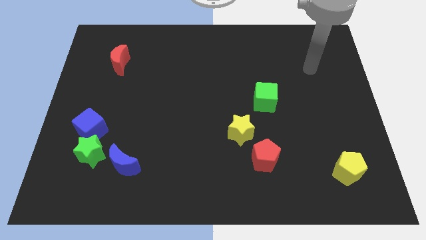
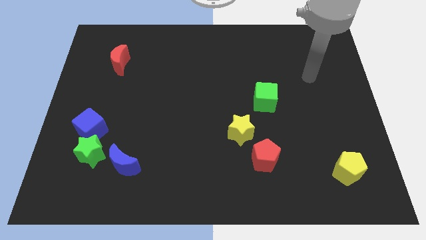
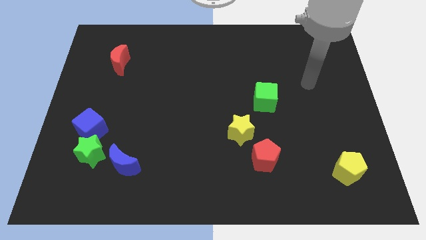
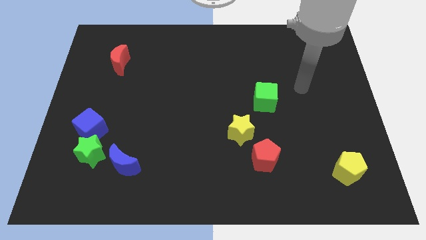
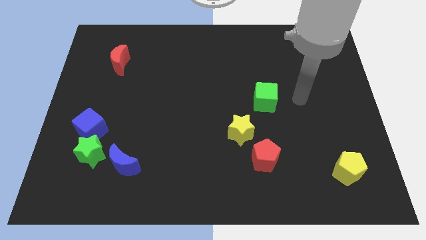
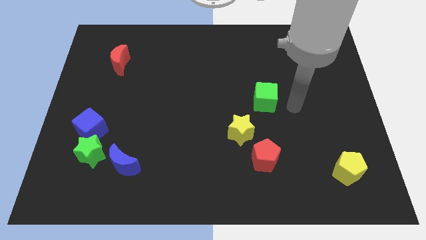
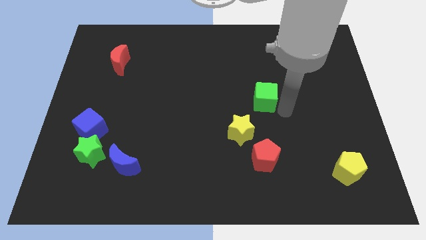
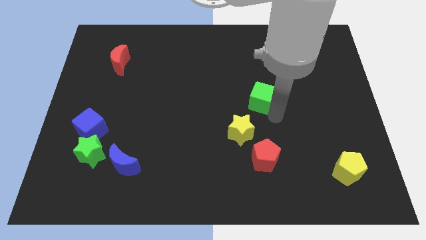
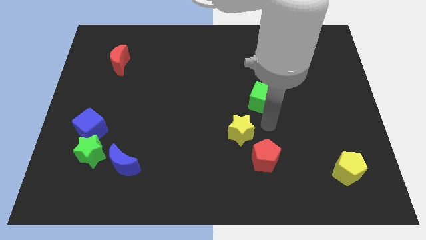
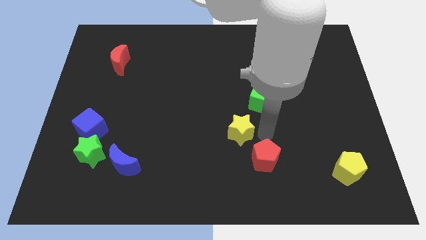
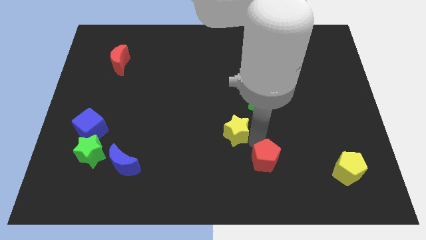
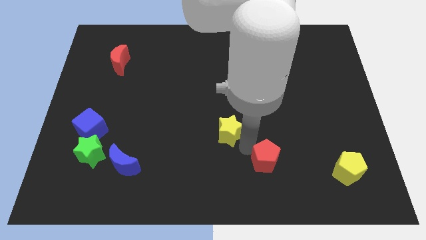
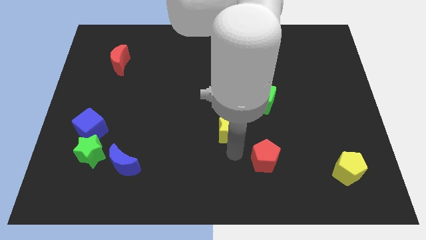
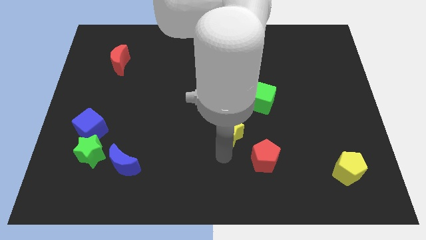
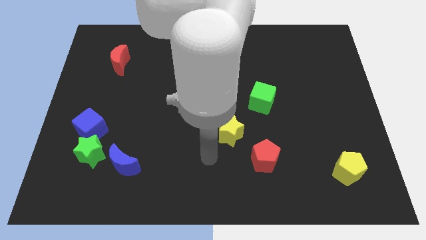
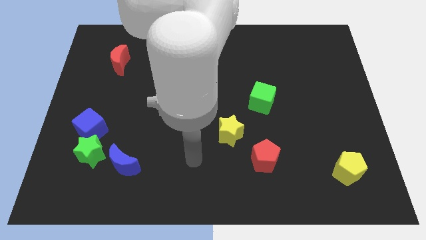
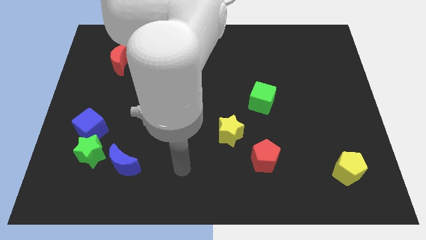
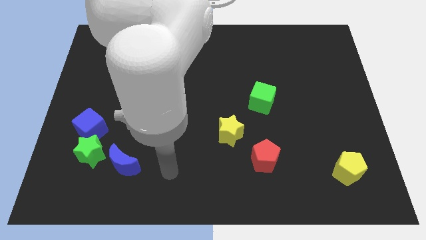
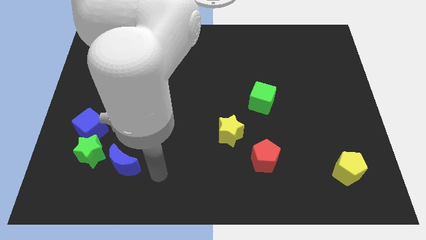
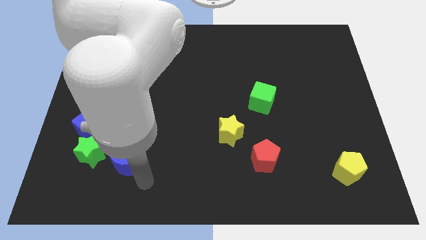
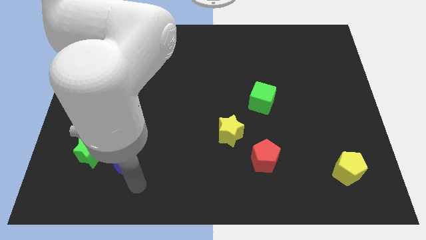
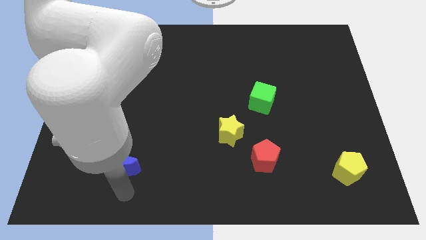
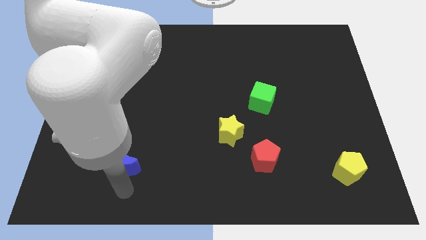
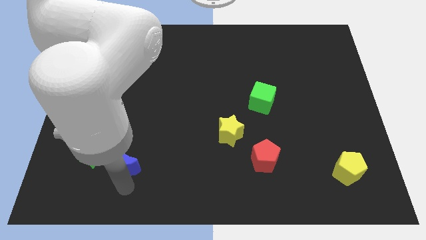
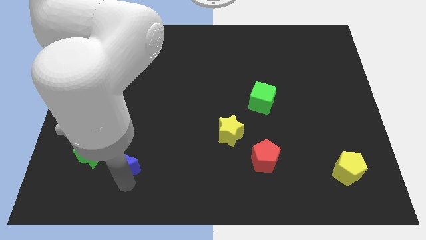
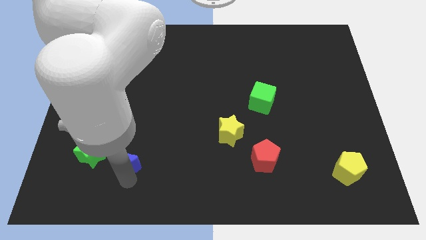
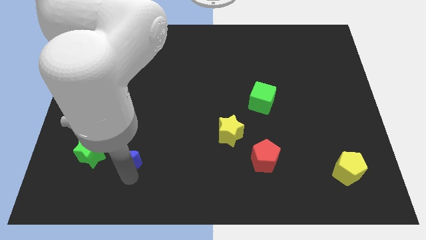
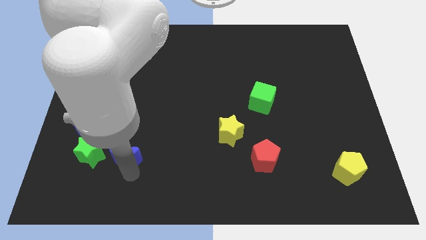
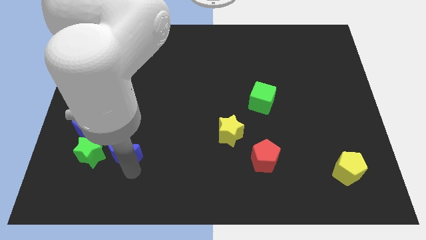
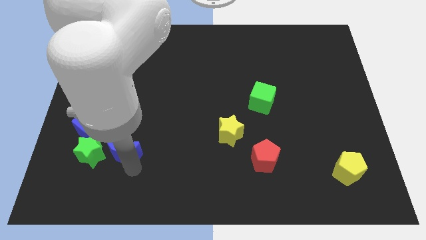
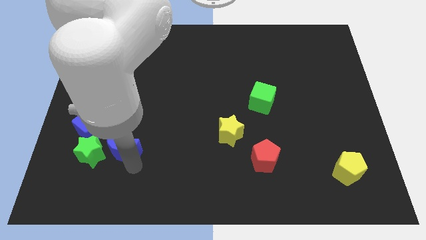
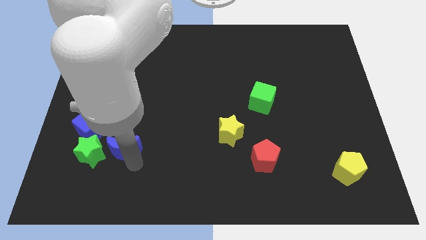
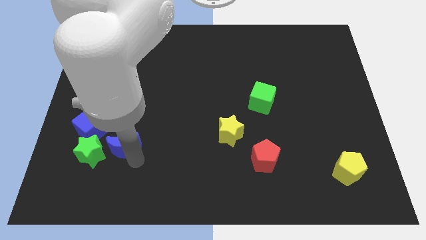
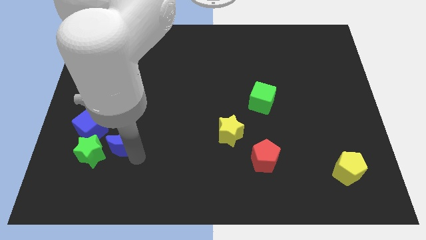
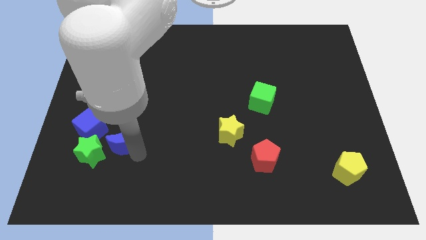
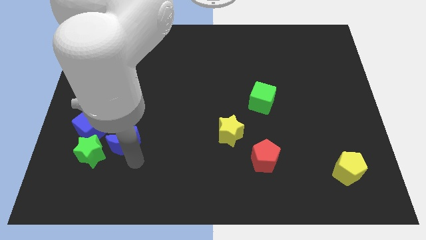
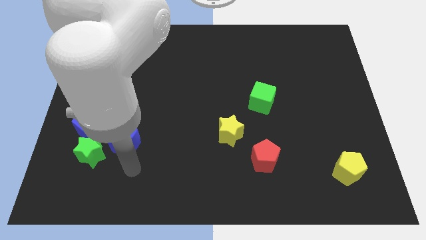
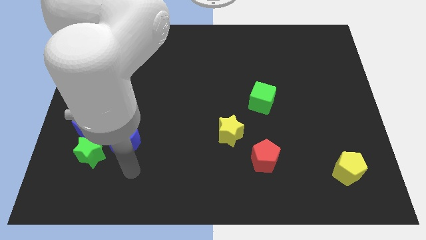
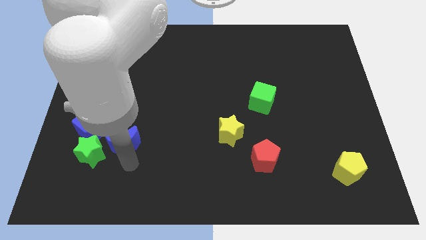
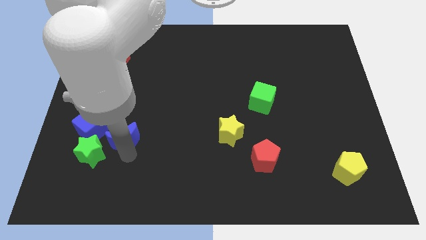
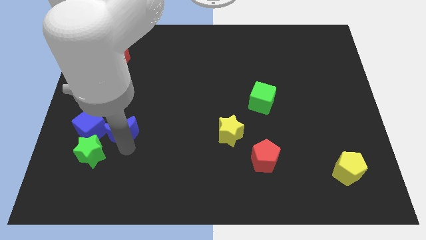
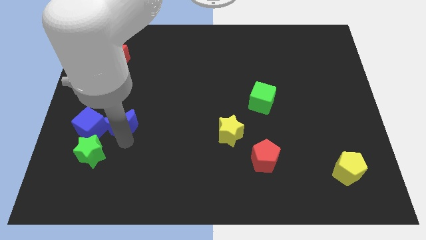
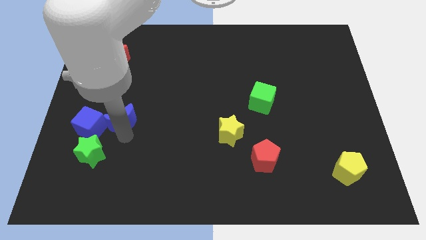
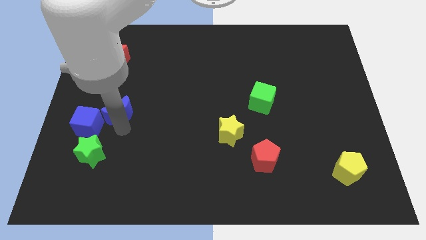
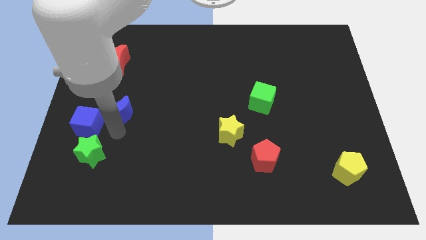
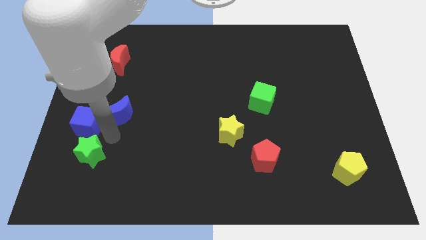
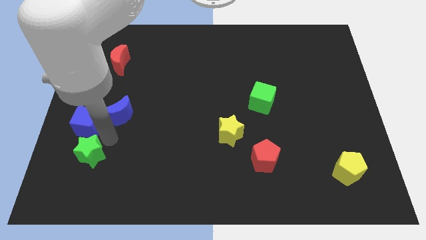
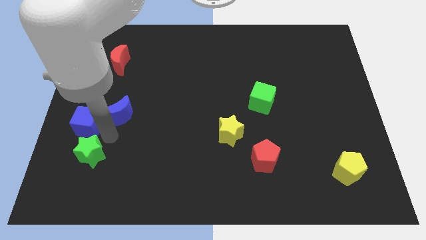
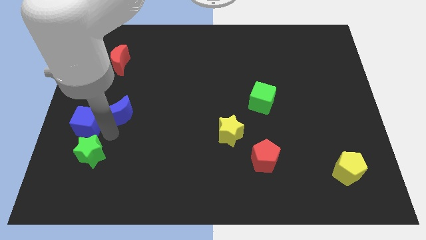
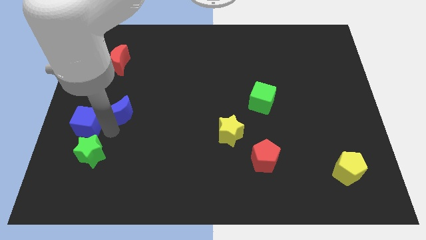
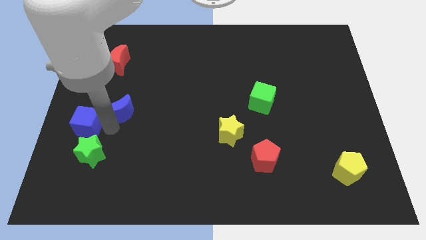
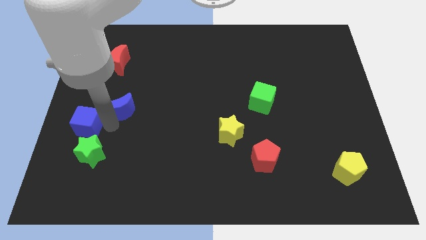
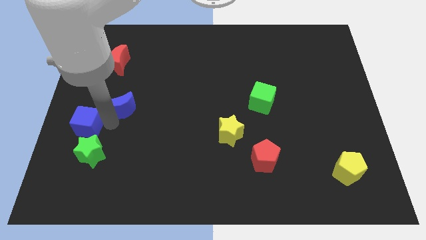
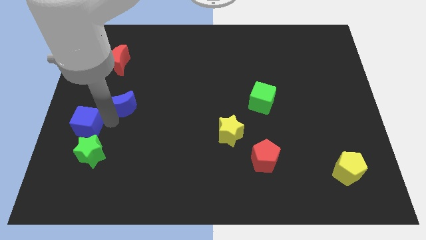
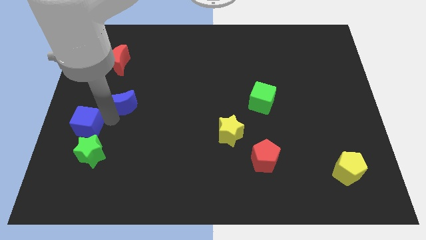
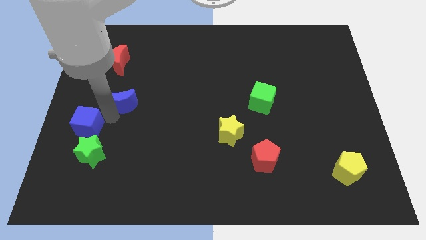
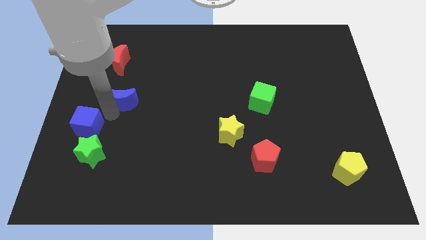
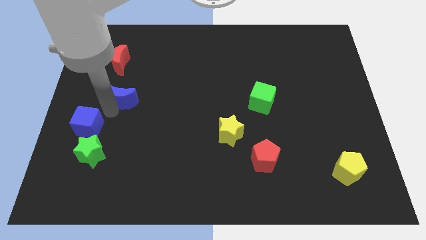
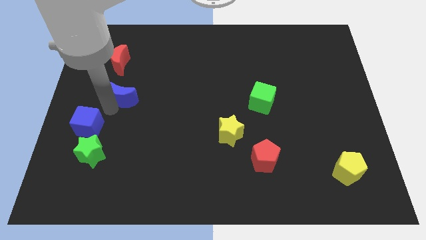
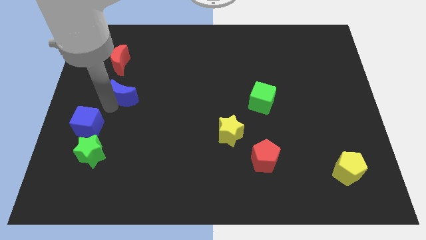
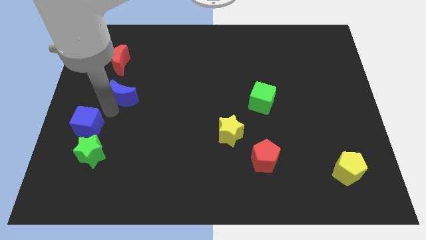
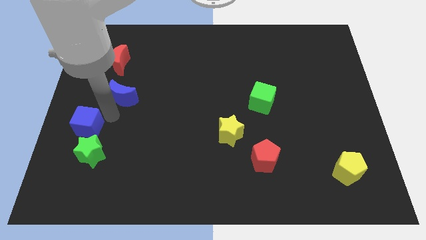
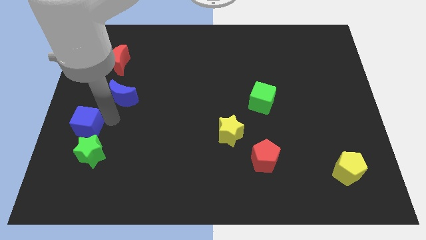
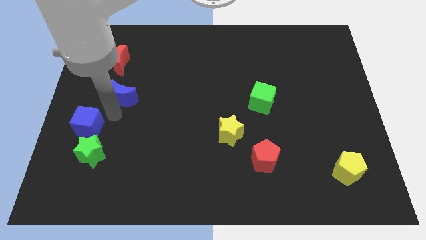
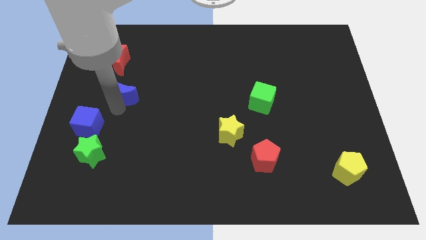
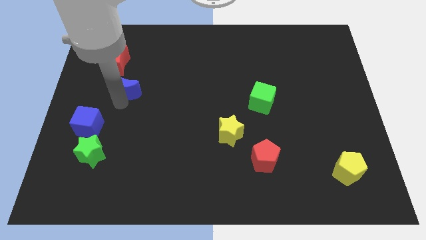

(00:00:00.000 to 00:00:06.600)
slide the blue moon upwards

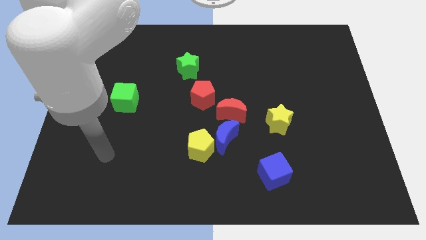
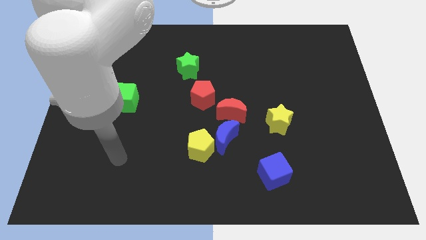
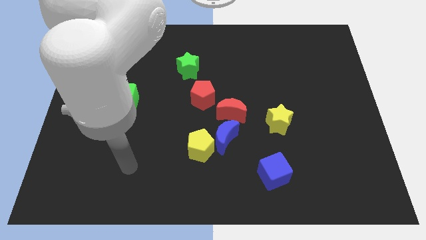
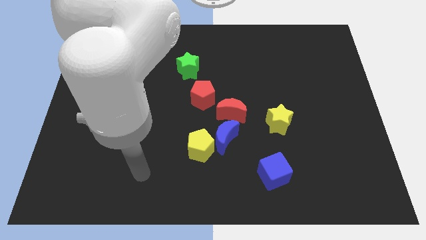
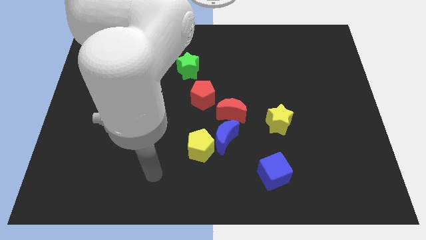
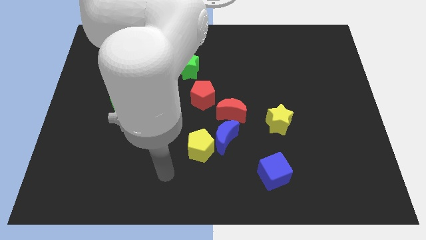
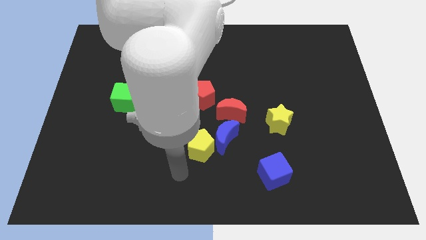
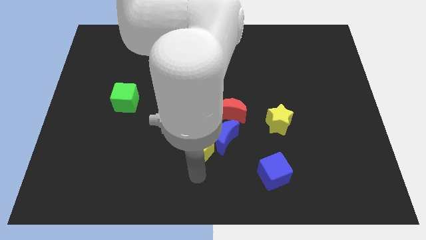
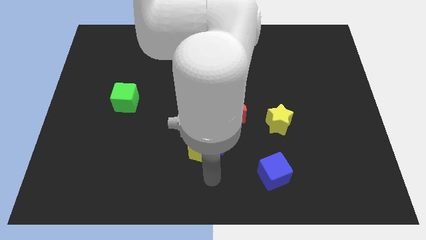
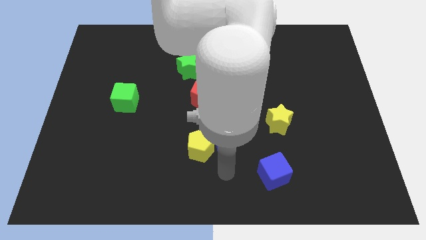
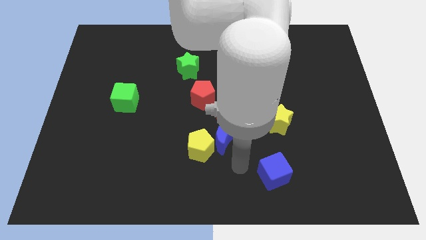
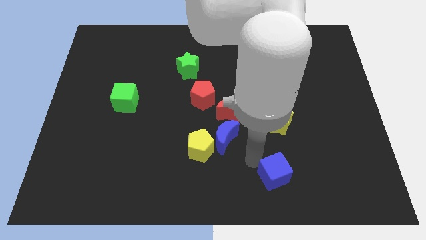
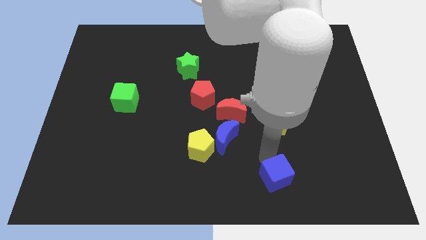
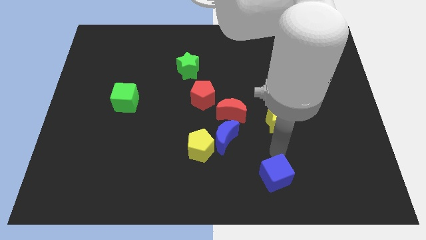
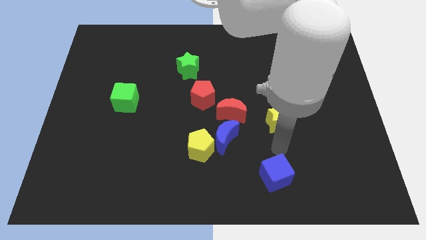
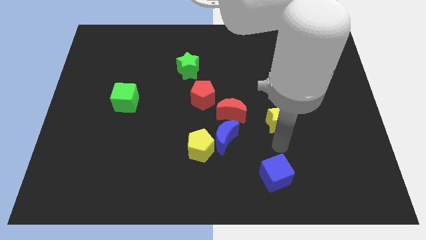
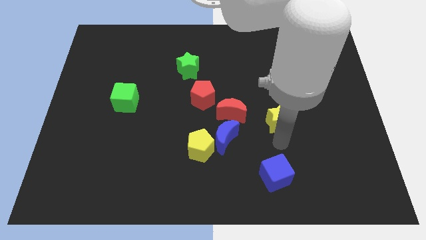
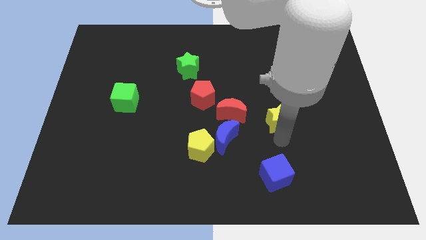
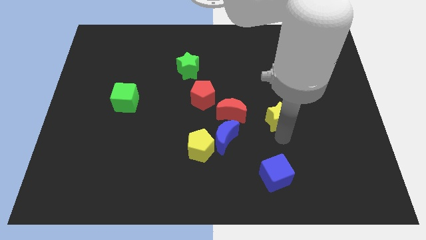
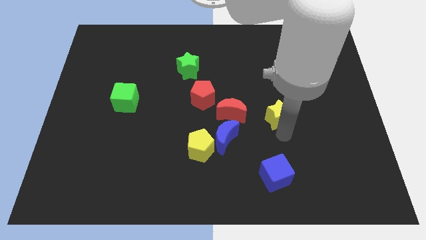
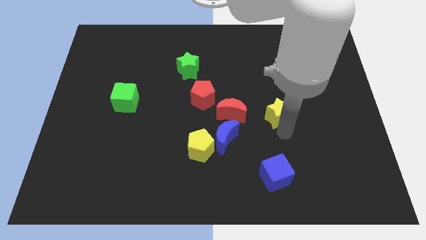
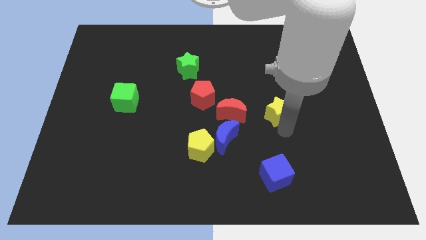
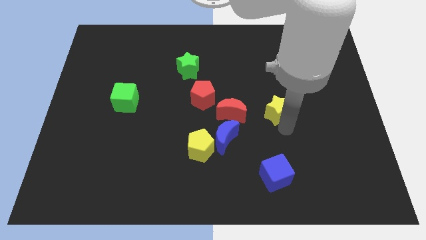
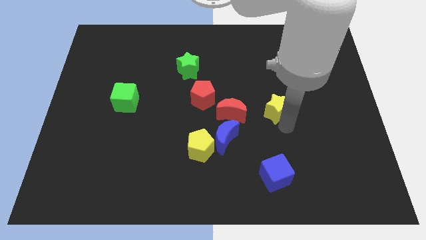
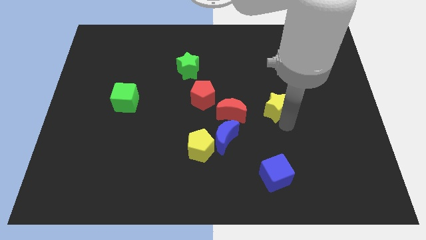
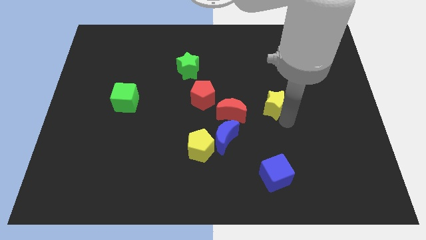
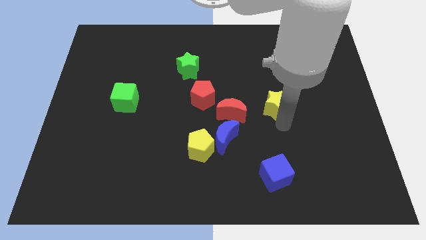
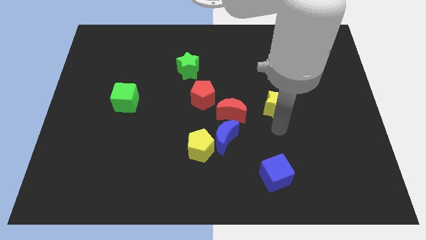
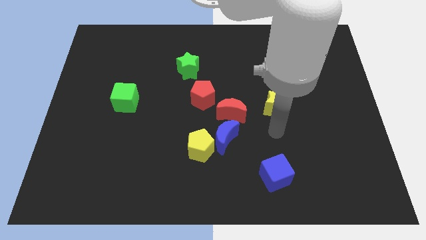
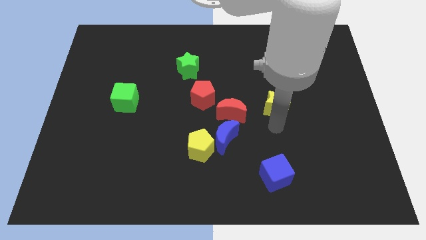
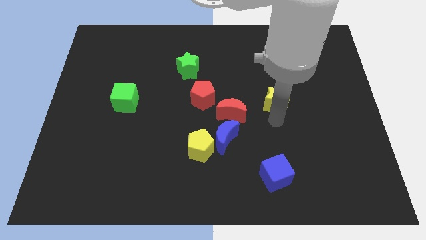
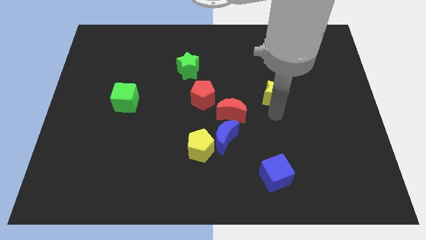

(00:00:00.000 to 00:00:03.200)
slightly push the yellow star upwards
